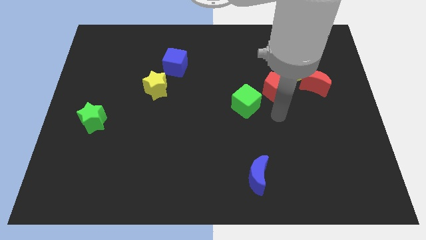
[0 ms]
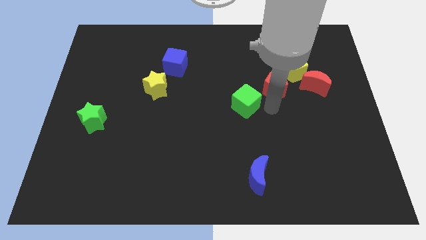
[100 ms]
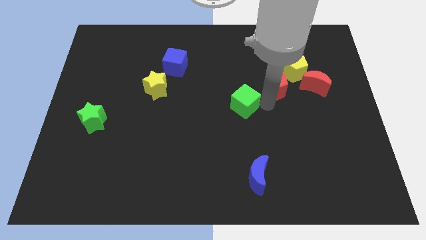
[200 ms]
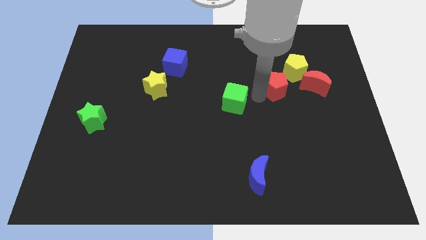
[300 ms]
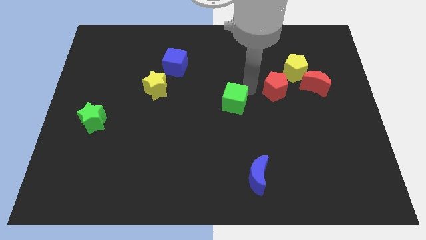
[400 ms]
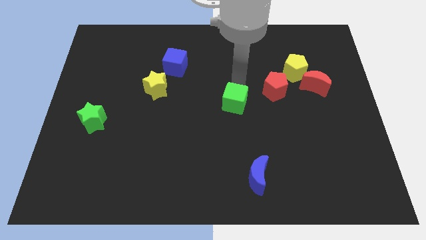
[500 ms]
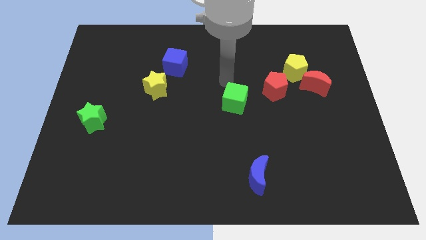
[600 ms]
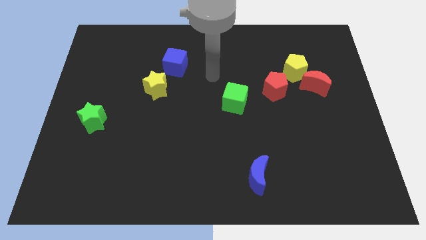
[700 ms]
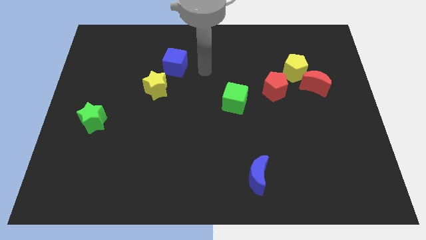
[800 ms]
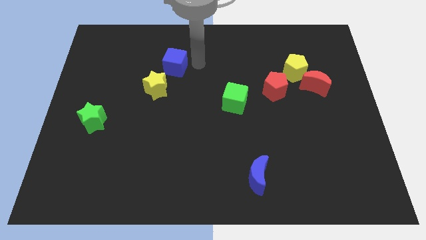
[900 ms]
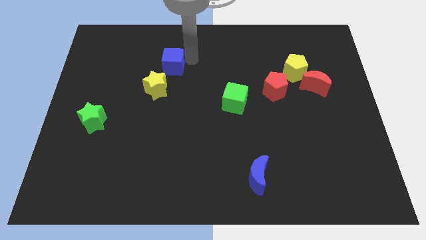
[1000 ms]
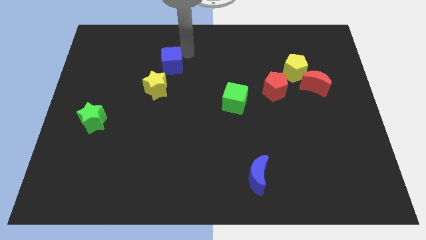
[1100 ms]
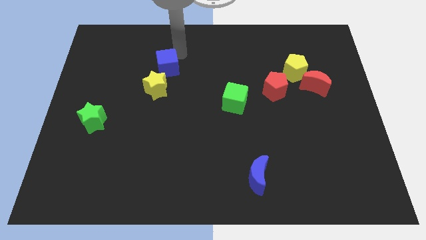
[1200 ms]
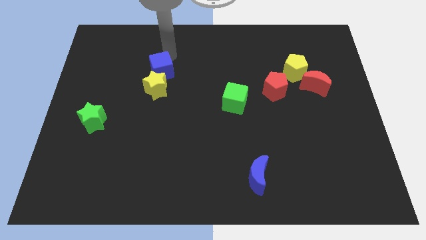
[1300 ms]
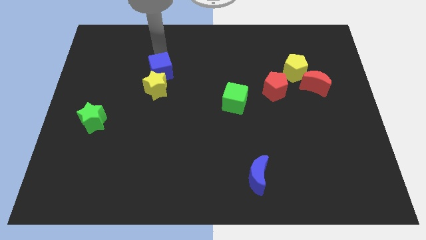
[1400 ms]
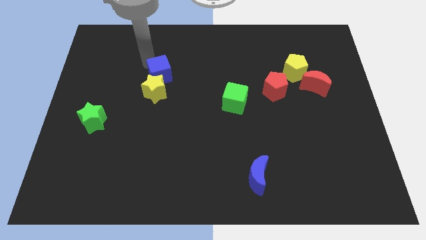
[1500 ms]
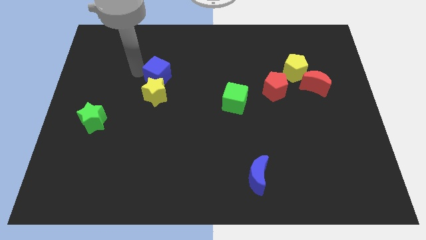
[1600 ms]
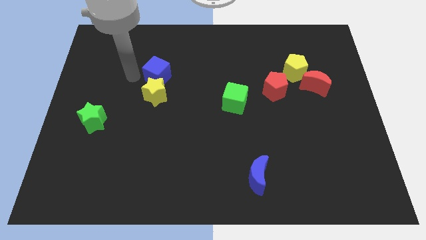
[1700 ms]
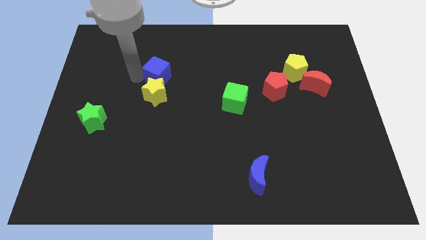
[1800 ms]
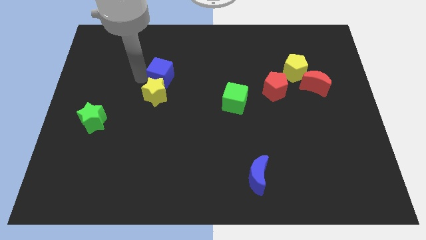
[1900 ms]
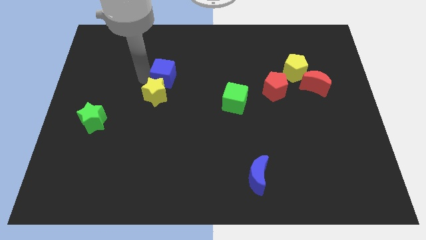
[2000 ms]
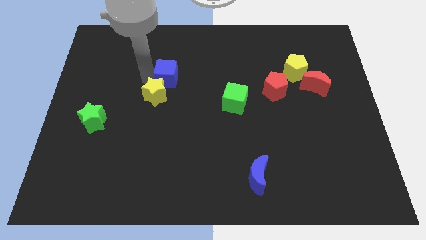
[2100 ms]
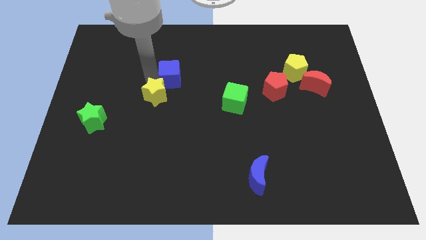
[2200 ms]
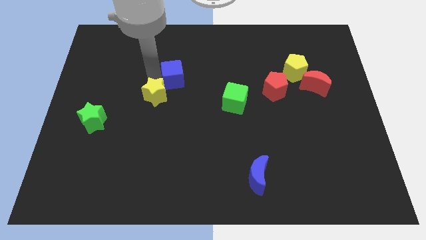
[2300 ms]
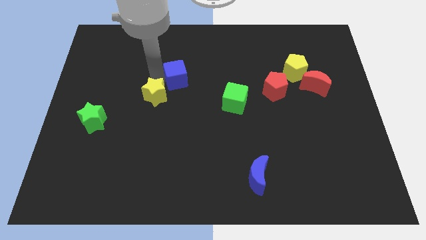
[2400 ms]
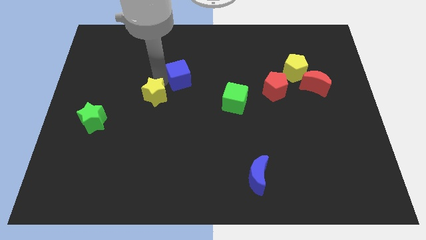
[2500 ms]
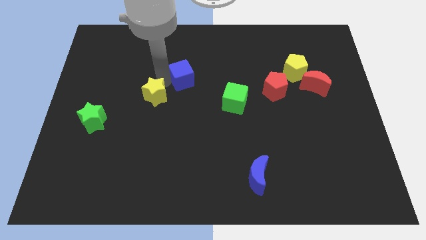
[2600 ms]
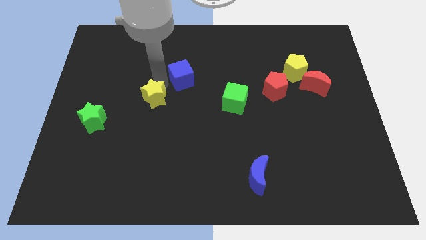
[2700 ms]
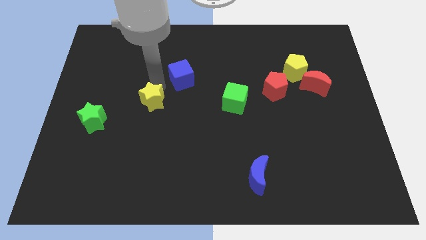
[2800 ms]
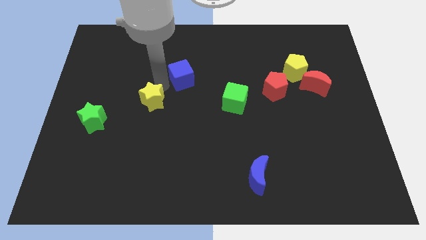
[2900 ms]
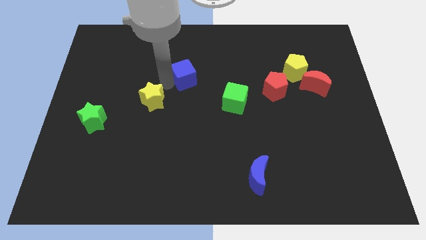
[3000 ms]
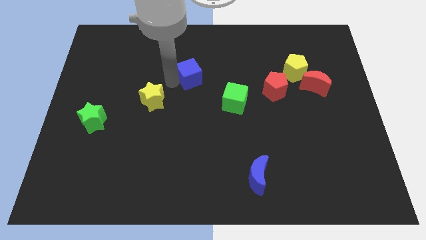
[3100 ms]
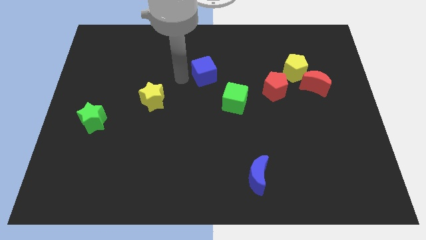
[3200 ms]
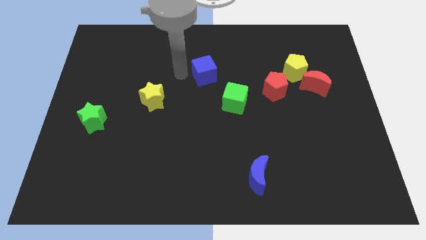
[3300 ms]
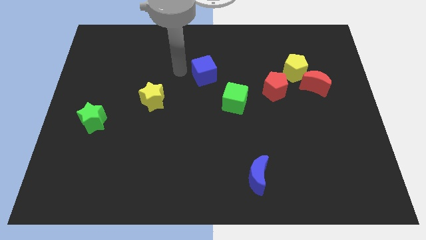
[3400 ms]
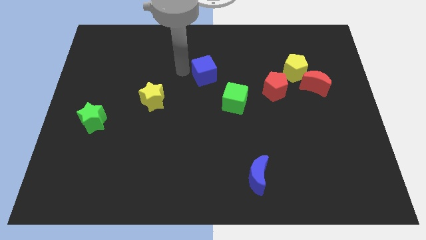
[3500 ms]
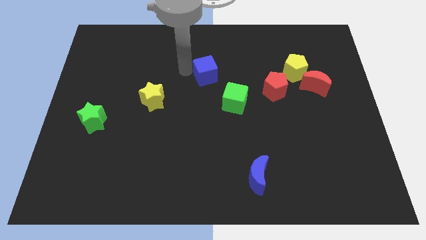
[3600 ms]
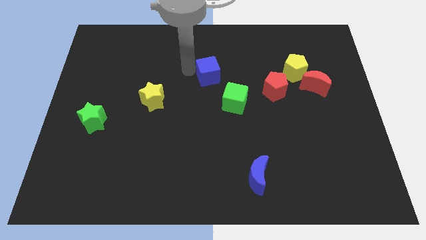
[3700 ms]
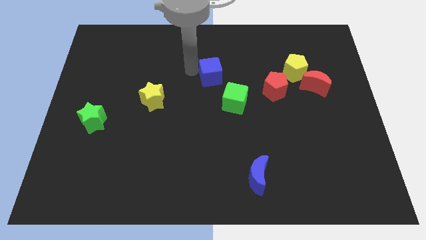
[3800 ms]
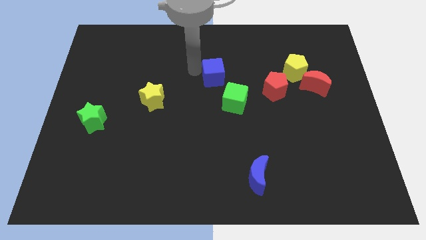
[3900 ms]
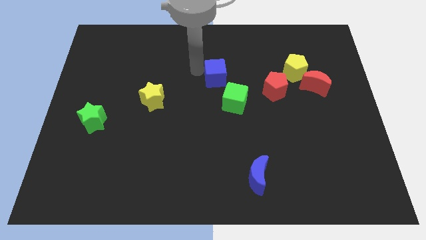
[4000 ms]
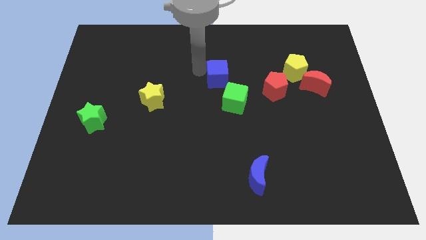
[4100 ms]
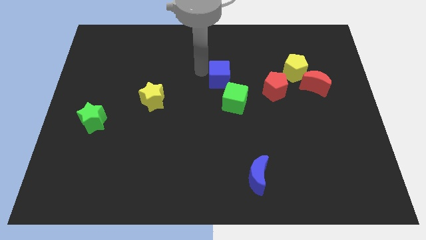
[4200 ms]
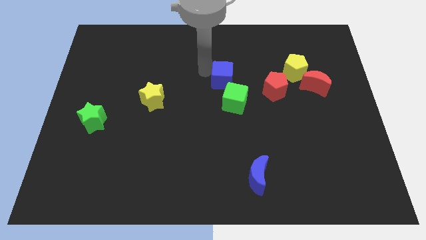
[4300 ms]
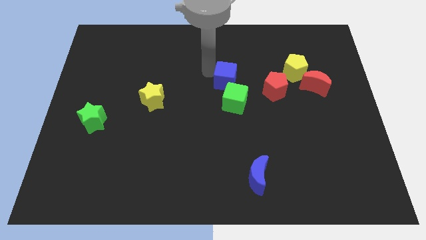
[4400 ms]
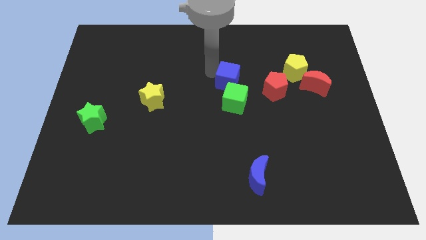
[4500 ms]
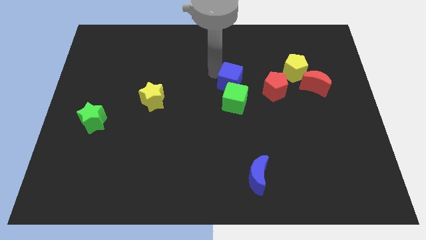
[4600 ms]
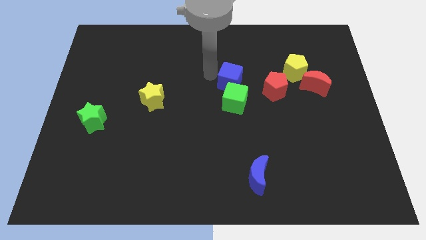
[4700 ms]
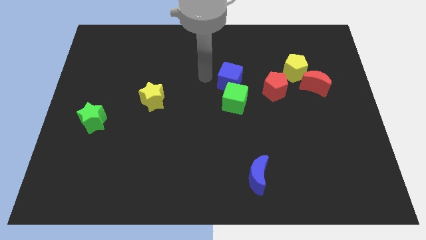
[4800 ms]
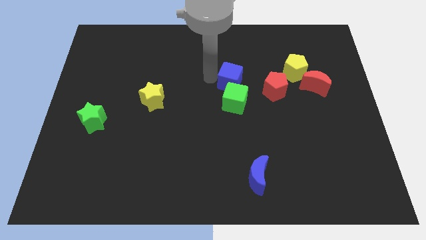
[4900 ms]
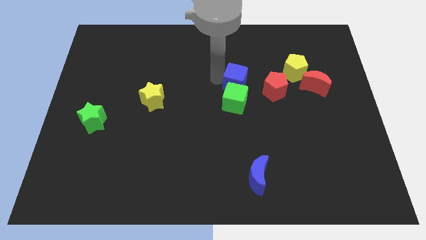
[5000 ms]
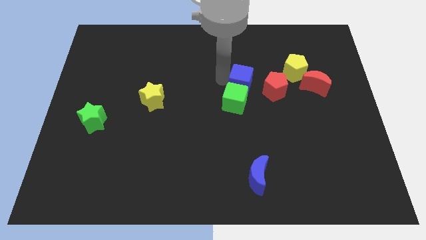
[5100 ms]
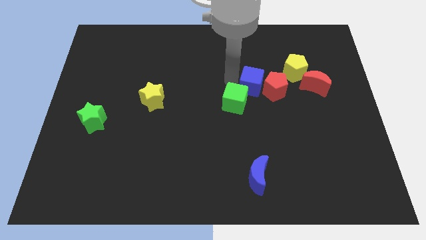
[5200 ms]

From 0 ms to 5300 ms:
put the blue cube towards the red pentagon
